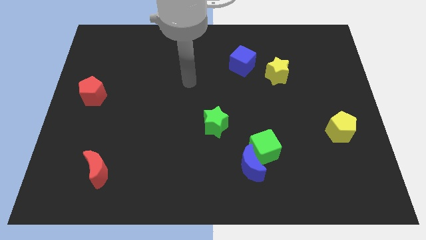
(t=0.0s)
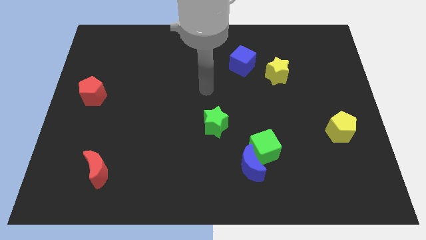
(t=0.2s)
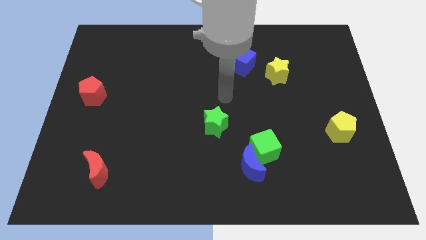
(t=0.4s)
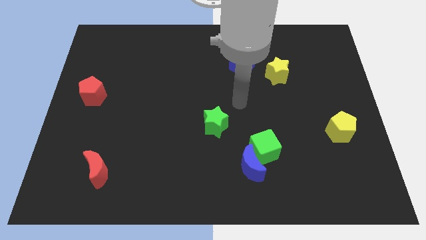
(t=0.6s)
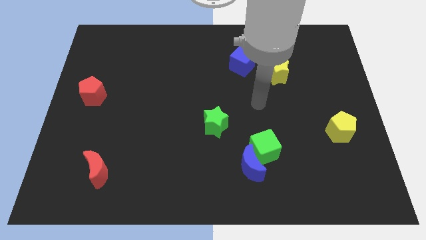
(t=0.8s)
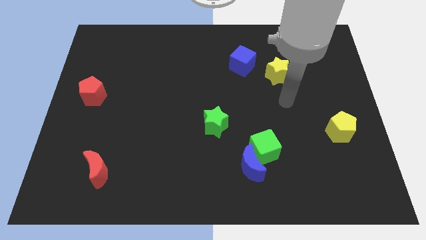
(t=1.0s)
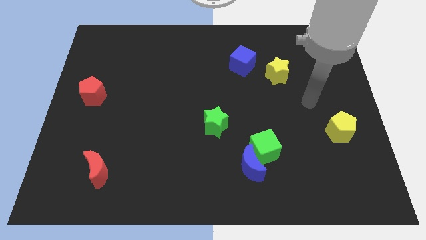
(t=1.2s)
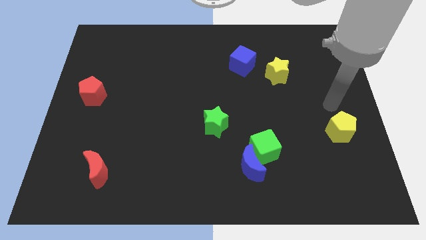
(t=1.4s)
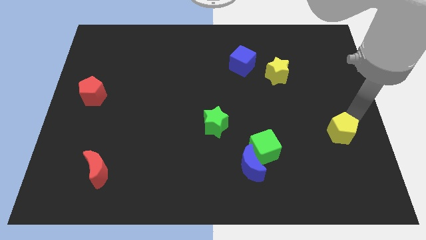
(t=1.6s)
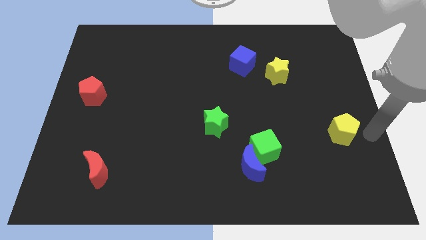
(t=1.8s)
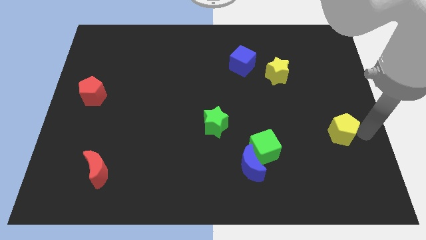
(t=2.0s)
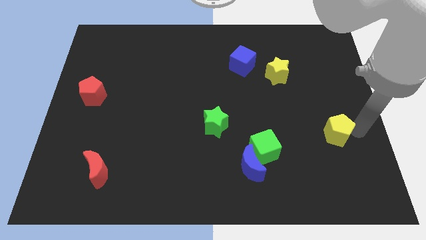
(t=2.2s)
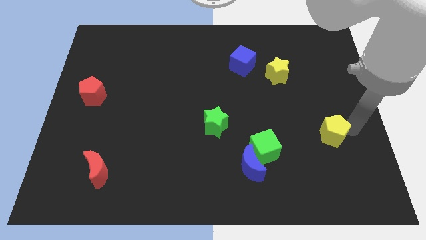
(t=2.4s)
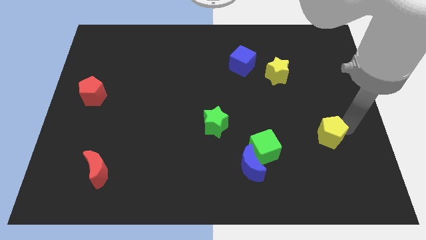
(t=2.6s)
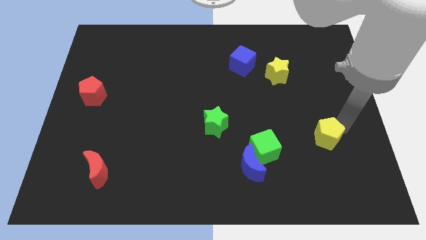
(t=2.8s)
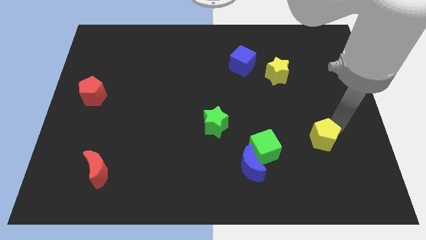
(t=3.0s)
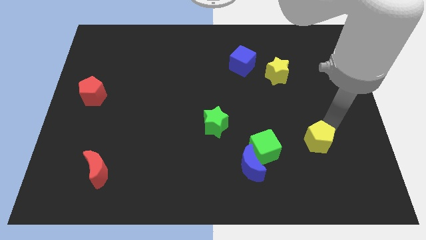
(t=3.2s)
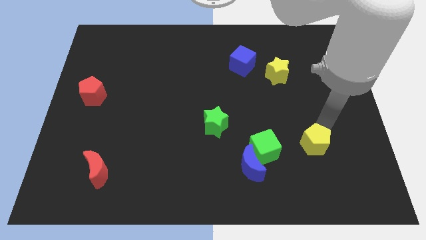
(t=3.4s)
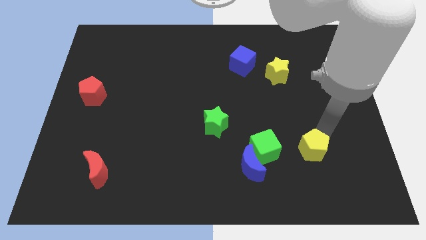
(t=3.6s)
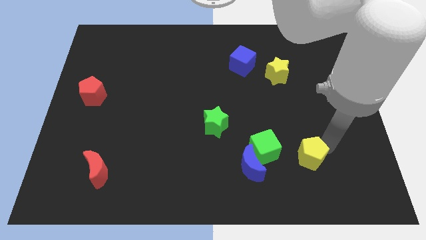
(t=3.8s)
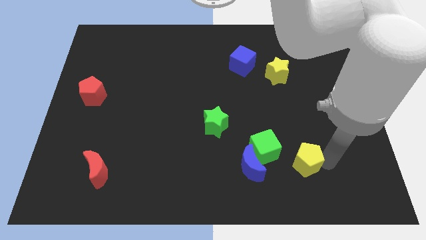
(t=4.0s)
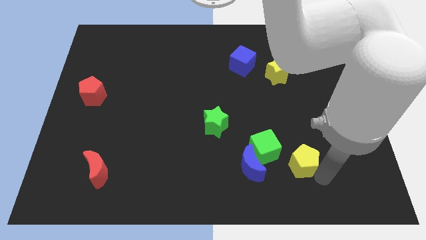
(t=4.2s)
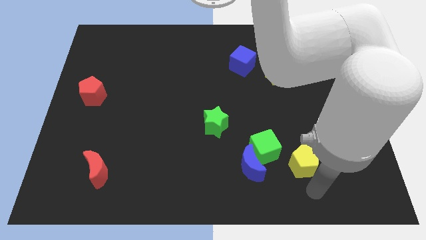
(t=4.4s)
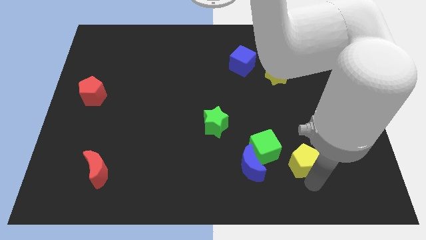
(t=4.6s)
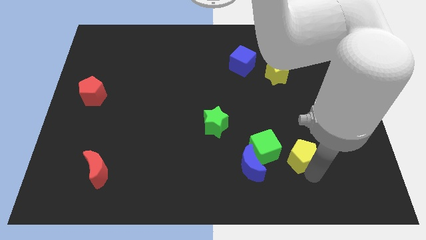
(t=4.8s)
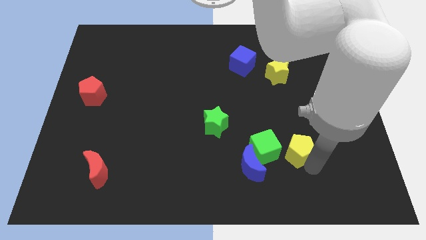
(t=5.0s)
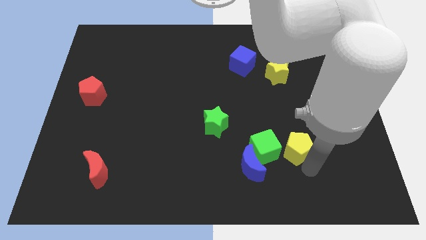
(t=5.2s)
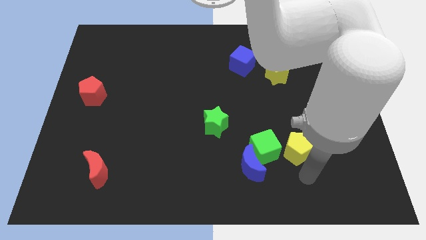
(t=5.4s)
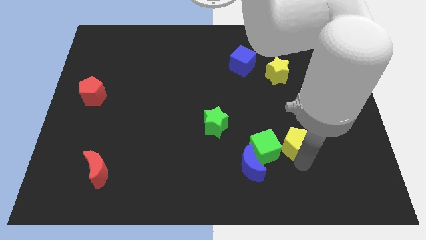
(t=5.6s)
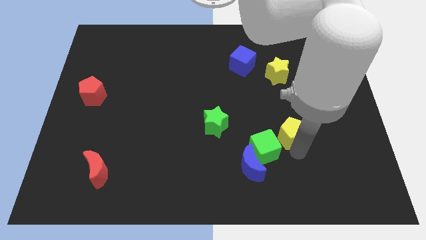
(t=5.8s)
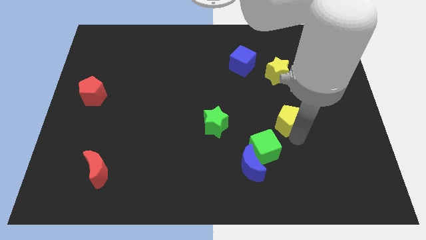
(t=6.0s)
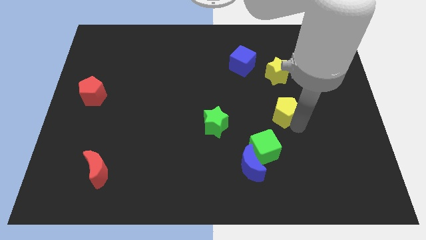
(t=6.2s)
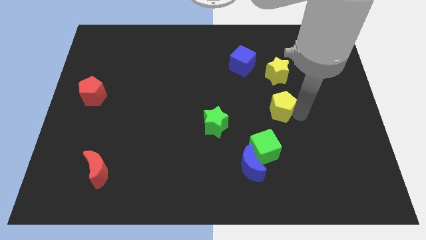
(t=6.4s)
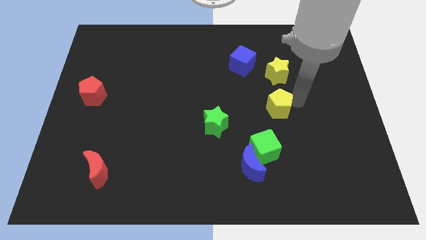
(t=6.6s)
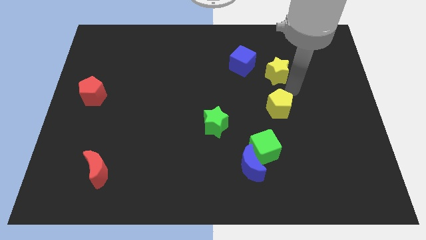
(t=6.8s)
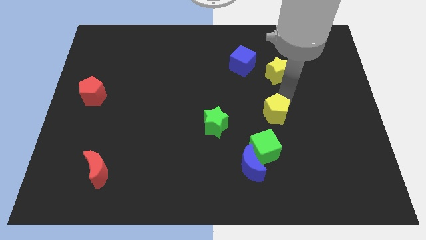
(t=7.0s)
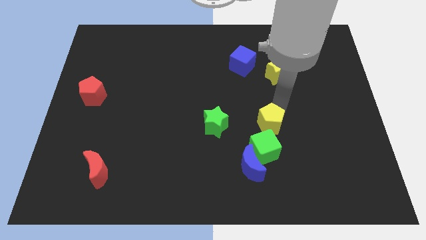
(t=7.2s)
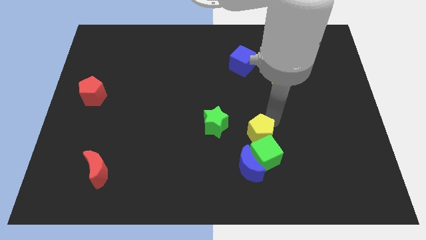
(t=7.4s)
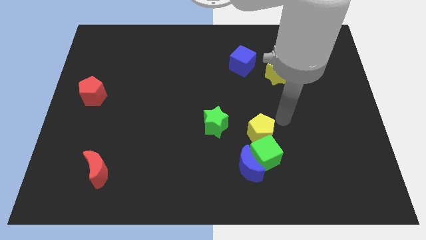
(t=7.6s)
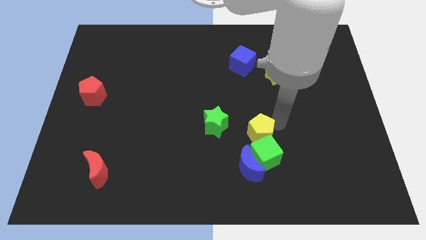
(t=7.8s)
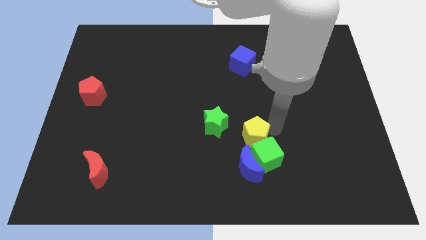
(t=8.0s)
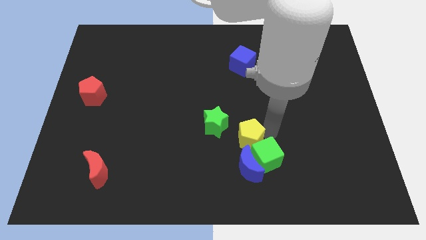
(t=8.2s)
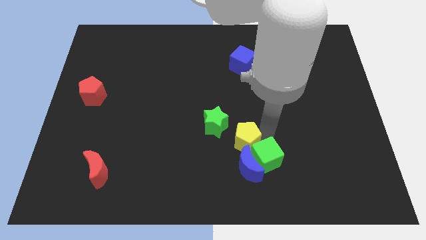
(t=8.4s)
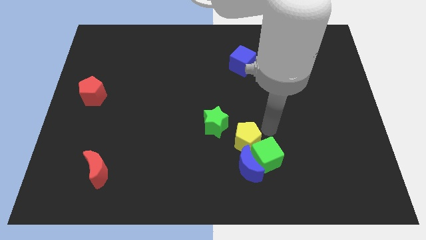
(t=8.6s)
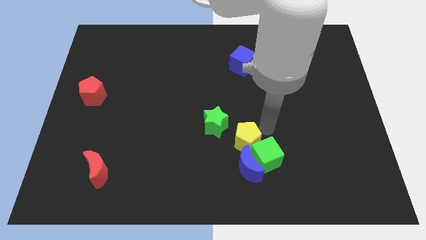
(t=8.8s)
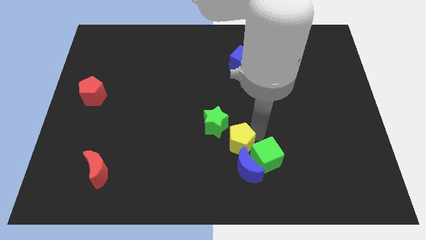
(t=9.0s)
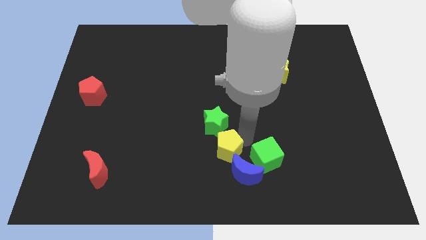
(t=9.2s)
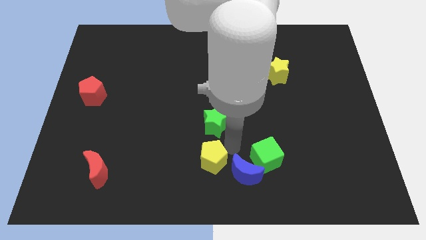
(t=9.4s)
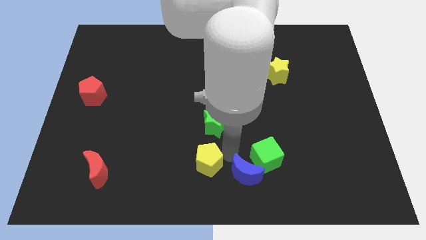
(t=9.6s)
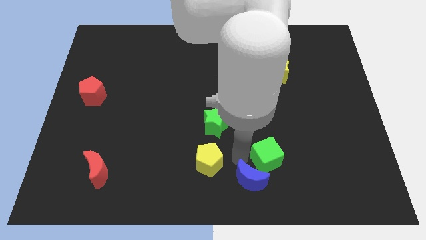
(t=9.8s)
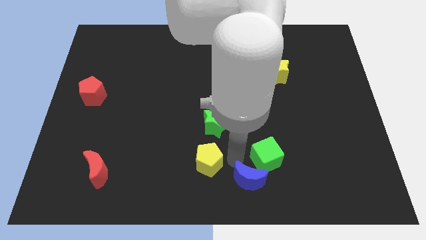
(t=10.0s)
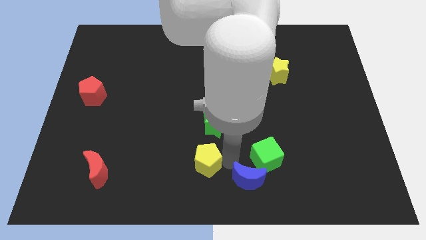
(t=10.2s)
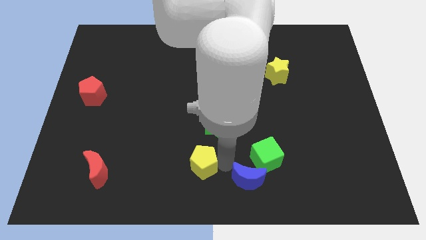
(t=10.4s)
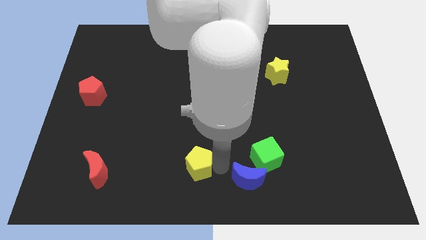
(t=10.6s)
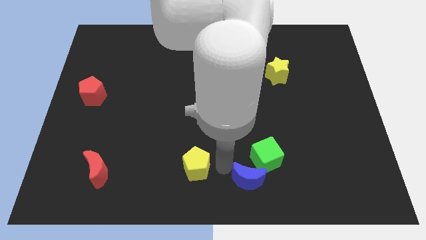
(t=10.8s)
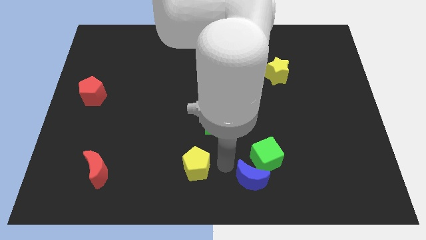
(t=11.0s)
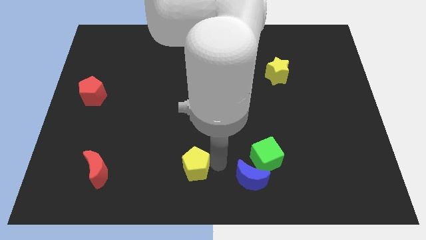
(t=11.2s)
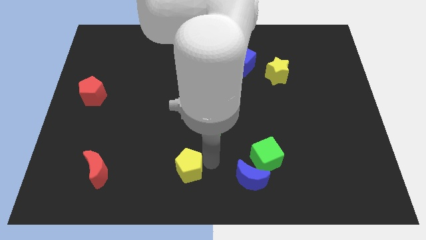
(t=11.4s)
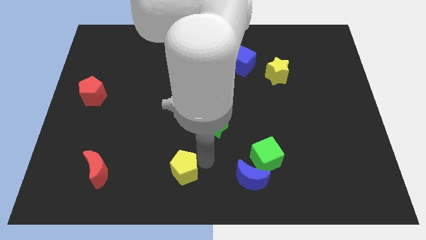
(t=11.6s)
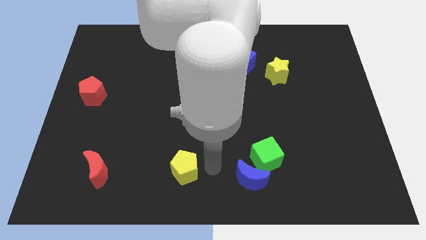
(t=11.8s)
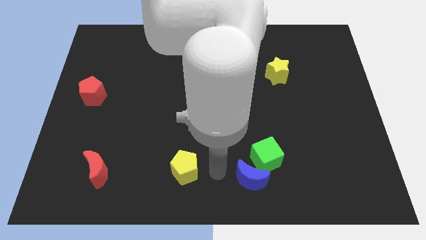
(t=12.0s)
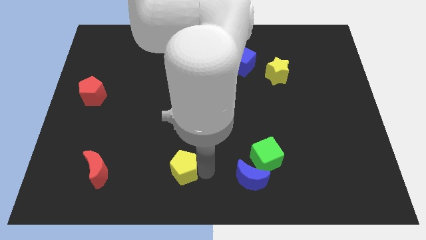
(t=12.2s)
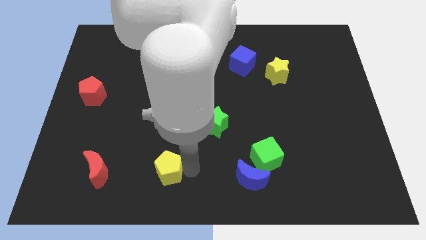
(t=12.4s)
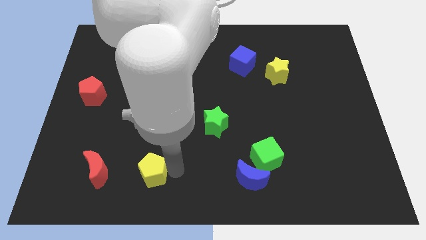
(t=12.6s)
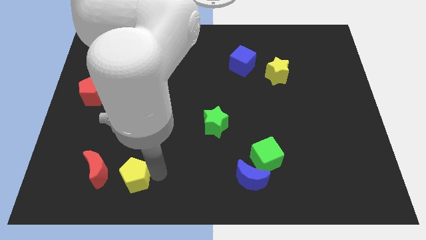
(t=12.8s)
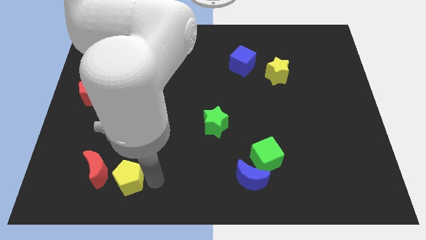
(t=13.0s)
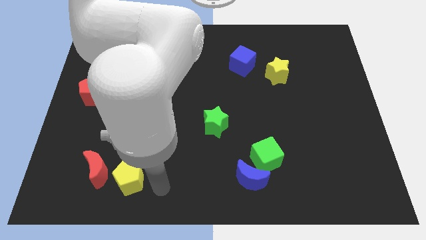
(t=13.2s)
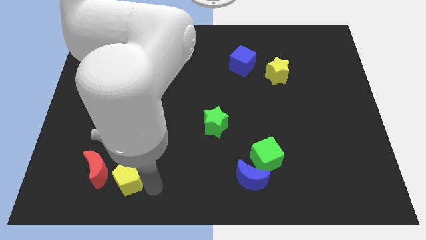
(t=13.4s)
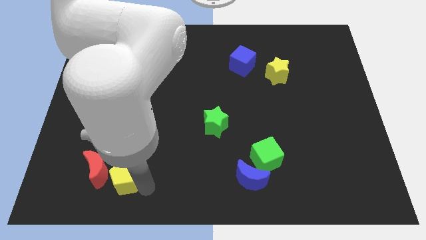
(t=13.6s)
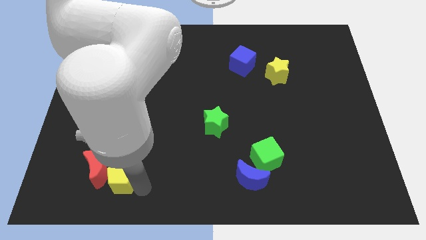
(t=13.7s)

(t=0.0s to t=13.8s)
push the yellow pentagon to the red moon
